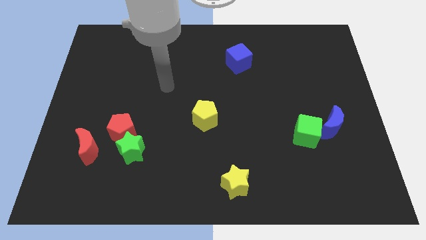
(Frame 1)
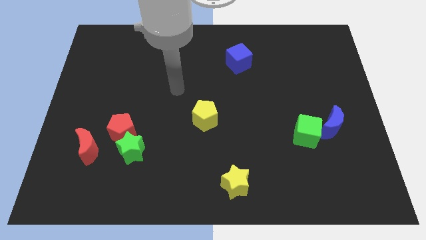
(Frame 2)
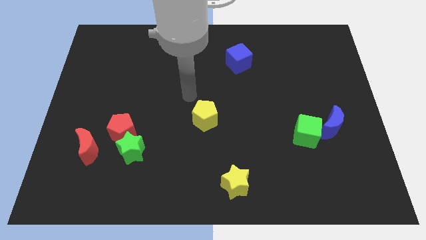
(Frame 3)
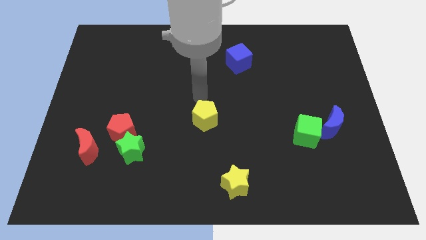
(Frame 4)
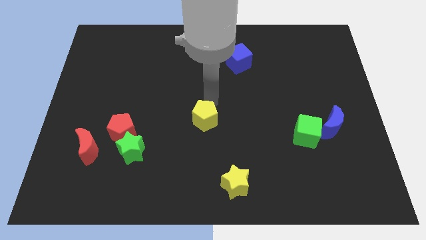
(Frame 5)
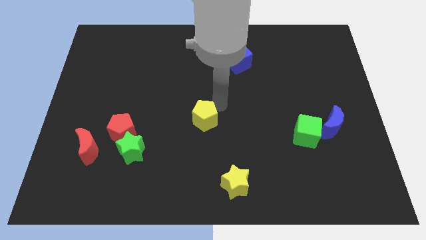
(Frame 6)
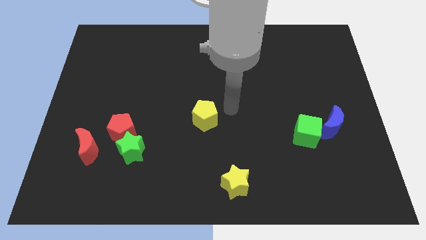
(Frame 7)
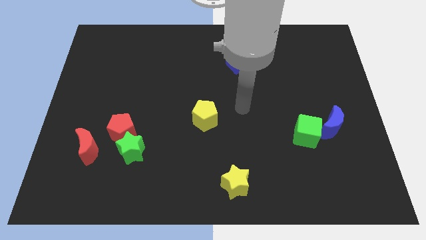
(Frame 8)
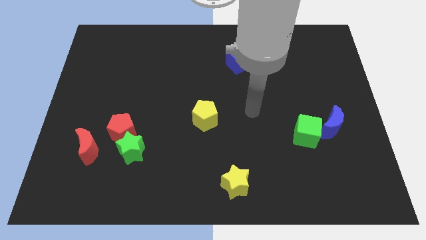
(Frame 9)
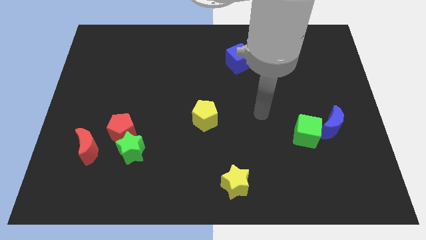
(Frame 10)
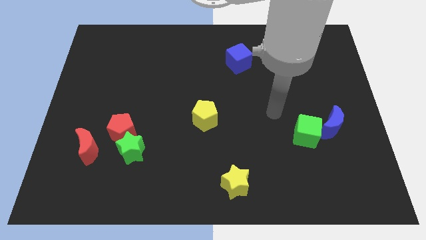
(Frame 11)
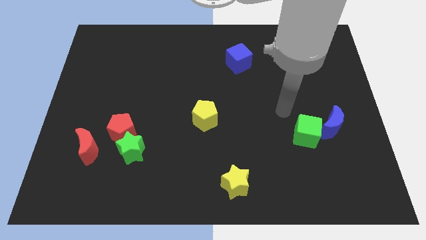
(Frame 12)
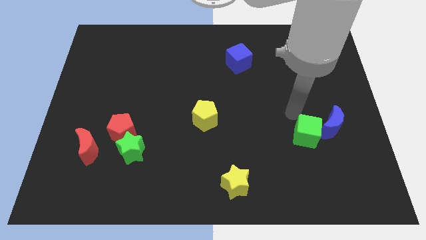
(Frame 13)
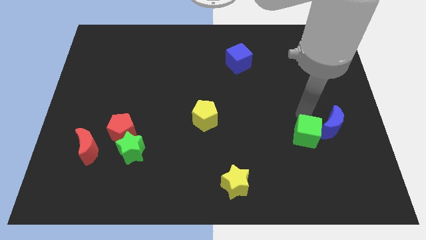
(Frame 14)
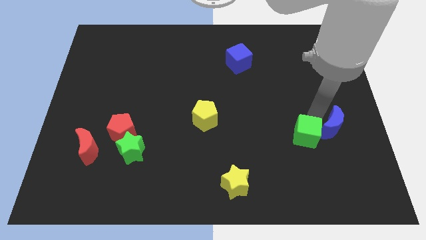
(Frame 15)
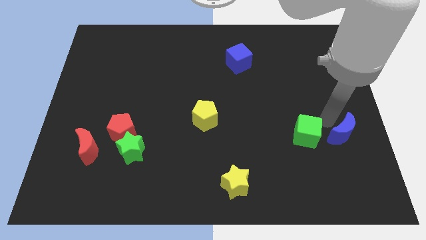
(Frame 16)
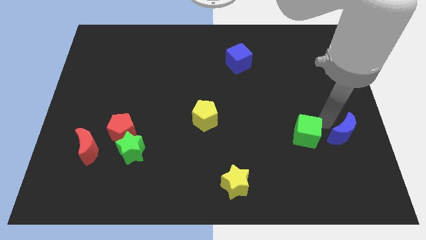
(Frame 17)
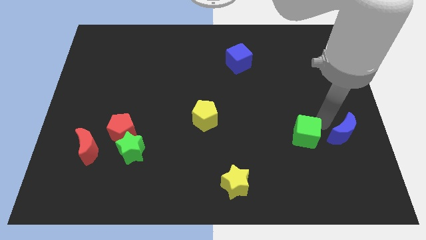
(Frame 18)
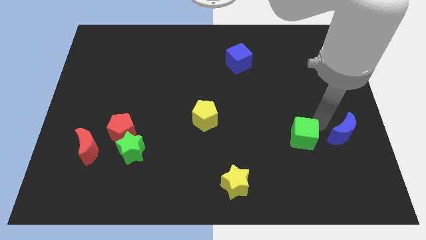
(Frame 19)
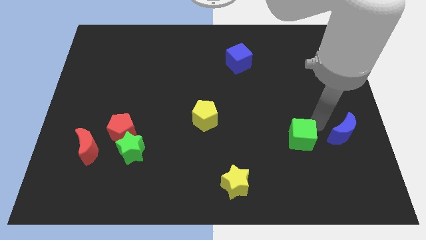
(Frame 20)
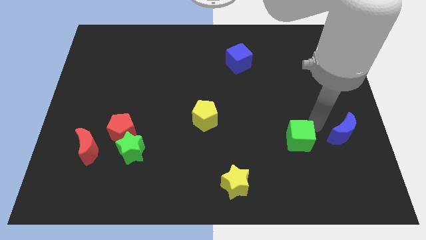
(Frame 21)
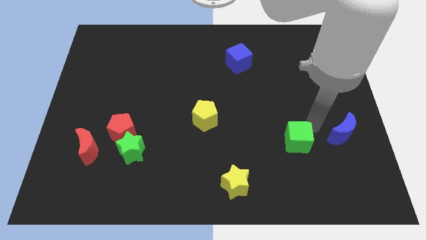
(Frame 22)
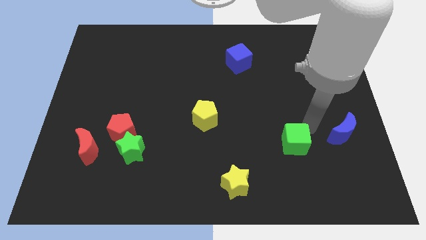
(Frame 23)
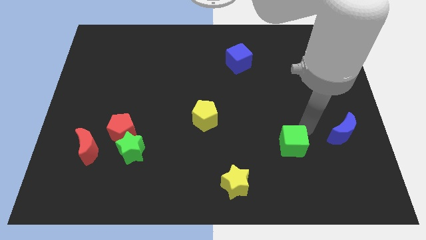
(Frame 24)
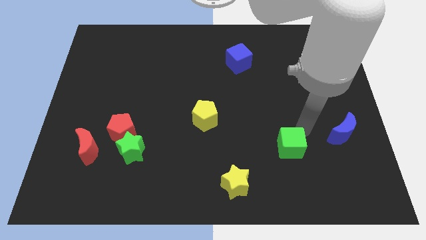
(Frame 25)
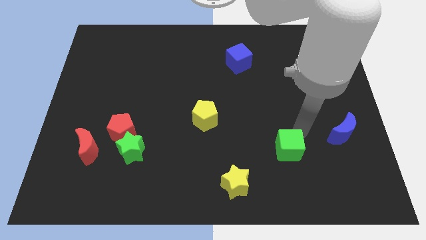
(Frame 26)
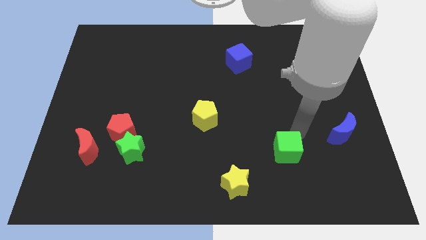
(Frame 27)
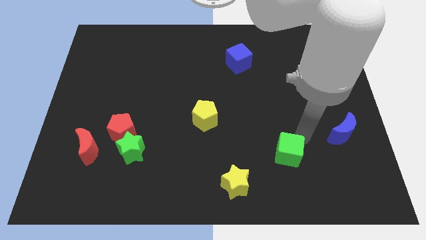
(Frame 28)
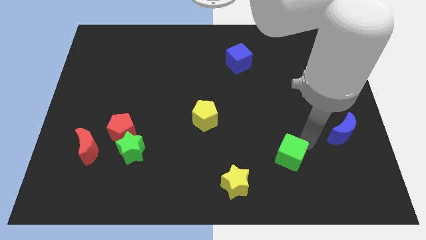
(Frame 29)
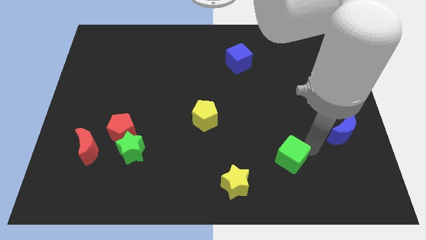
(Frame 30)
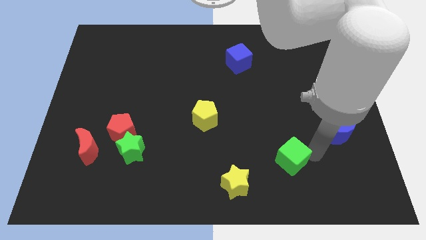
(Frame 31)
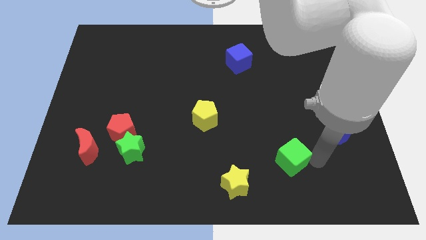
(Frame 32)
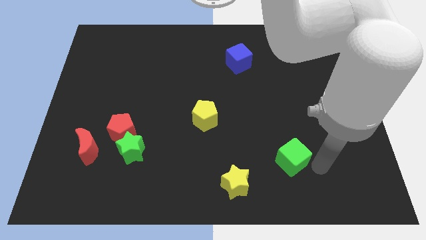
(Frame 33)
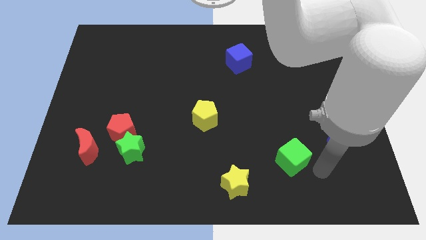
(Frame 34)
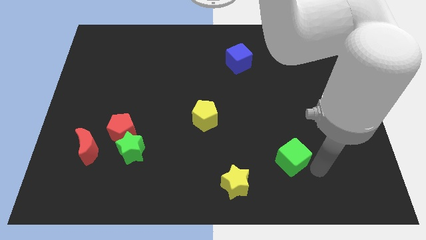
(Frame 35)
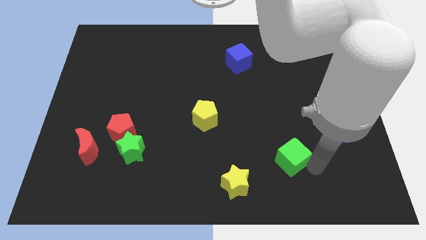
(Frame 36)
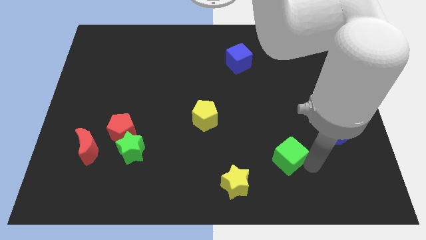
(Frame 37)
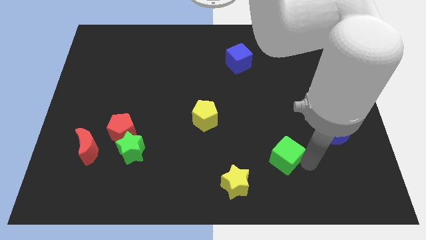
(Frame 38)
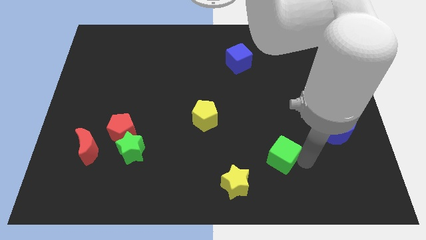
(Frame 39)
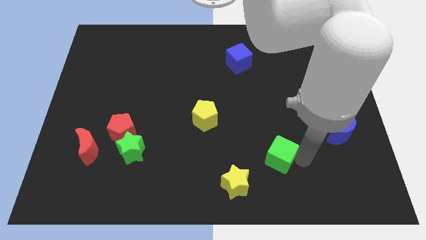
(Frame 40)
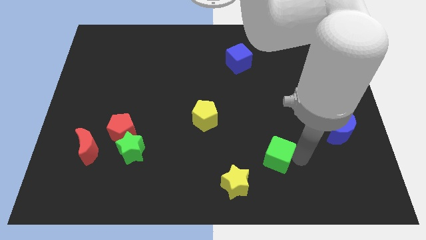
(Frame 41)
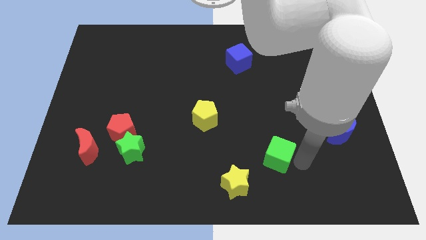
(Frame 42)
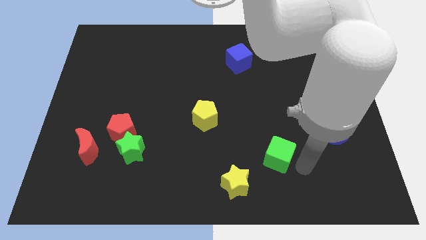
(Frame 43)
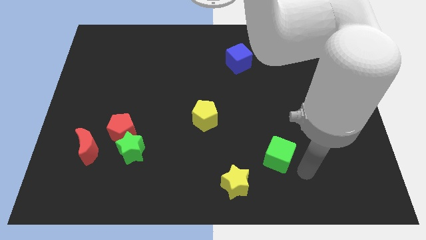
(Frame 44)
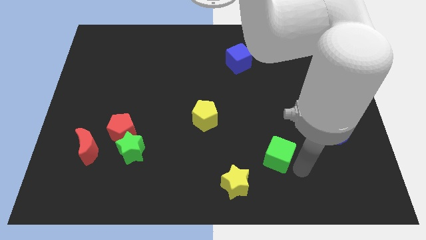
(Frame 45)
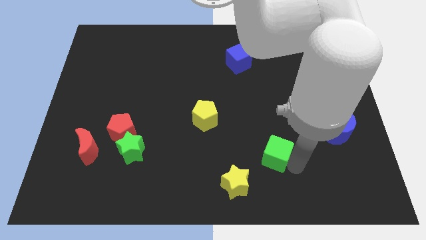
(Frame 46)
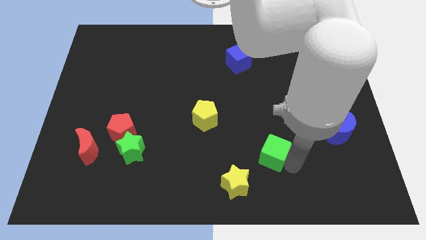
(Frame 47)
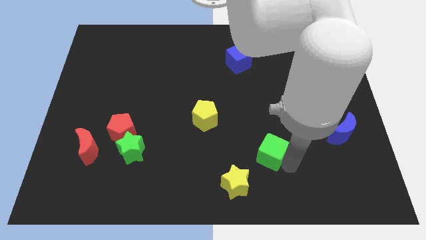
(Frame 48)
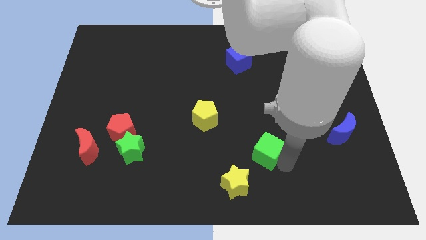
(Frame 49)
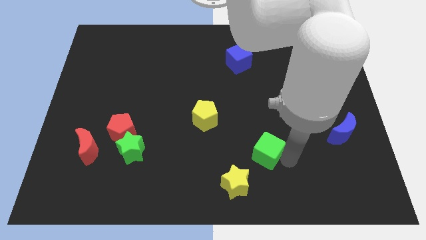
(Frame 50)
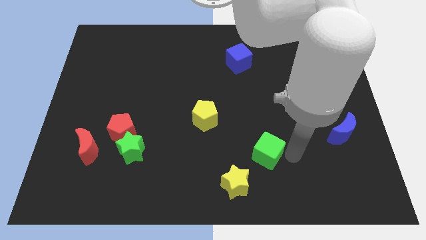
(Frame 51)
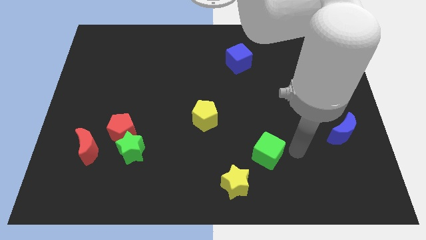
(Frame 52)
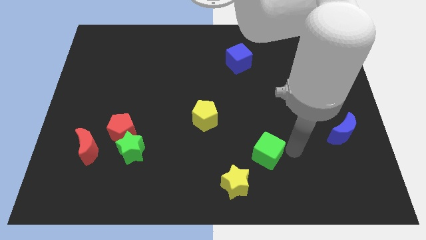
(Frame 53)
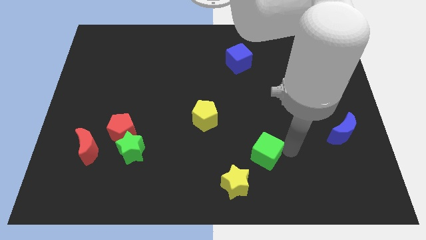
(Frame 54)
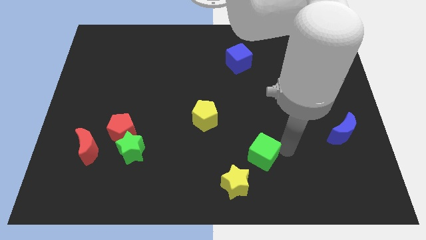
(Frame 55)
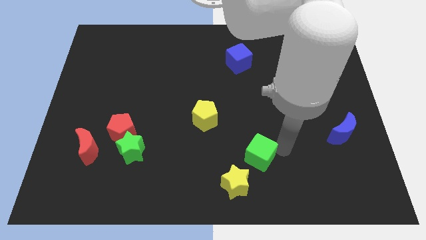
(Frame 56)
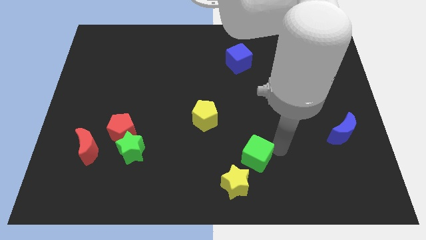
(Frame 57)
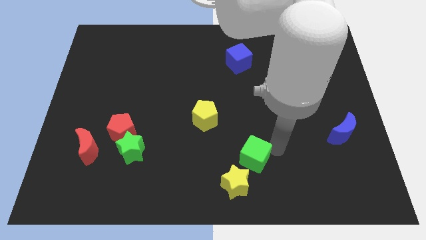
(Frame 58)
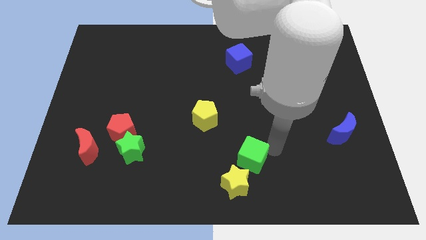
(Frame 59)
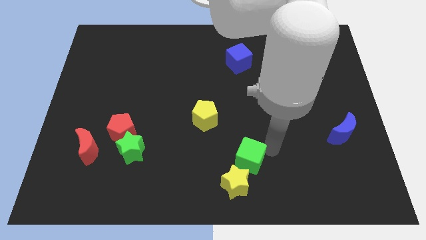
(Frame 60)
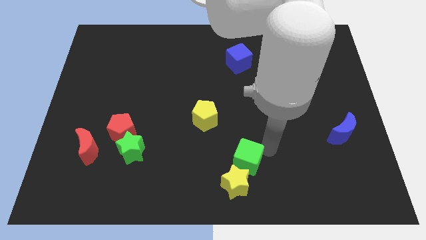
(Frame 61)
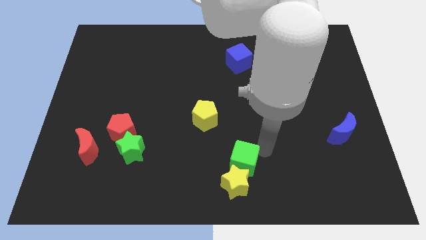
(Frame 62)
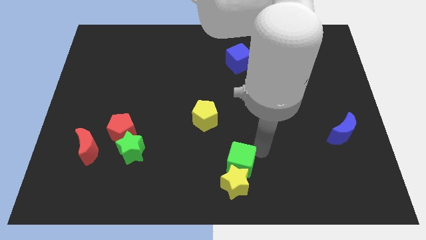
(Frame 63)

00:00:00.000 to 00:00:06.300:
put the green cube to the top left side of the yellow star

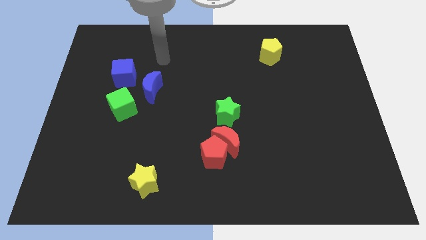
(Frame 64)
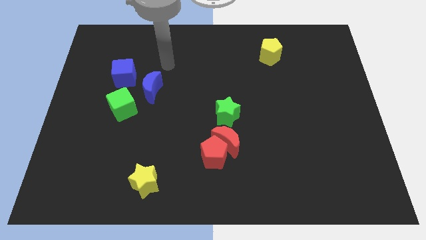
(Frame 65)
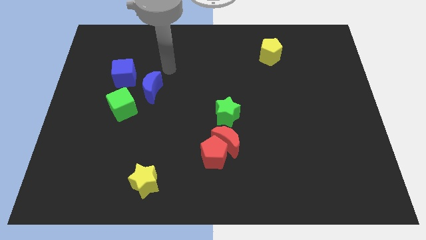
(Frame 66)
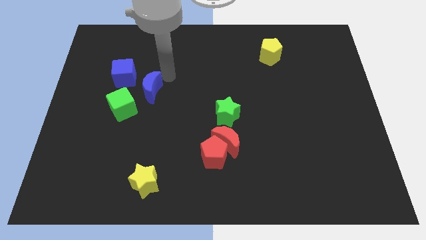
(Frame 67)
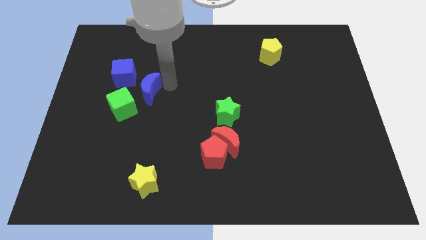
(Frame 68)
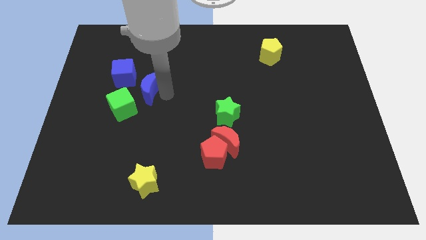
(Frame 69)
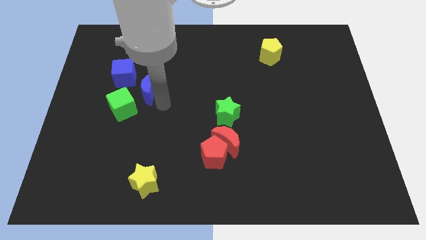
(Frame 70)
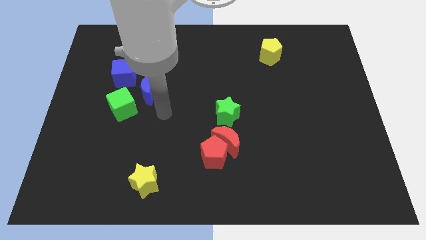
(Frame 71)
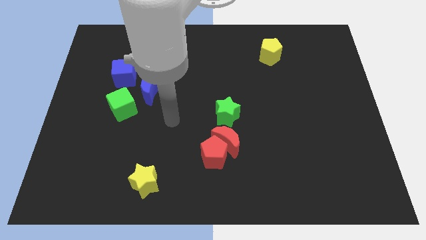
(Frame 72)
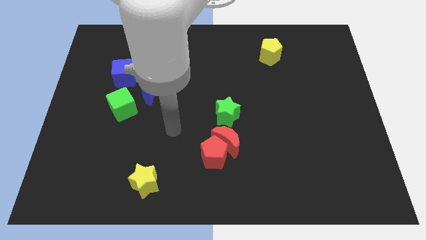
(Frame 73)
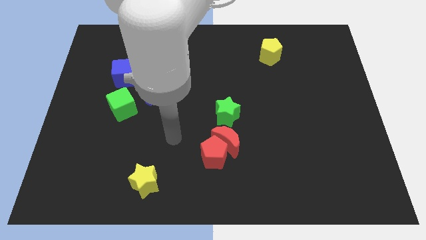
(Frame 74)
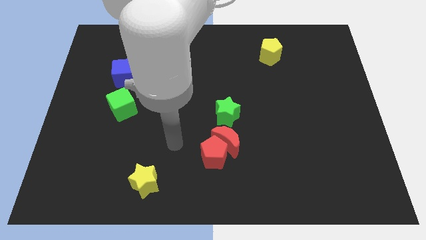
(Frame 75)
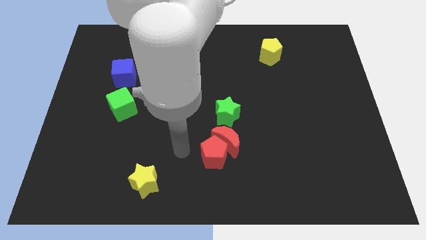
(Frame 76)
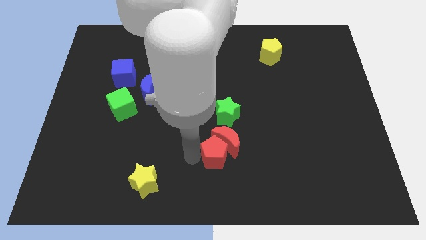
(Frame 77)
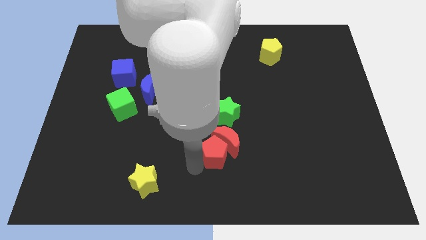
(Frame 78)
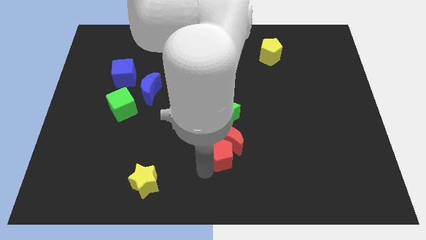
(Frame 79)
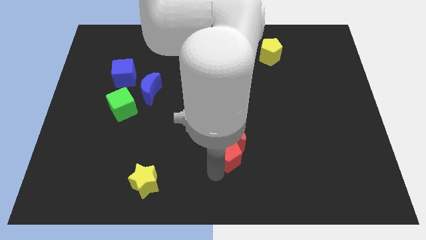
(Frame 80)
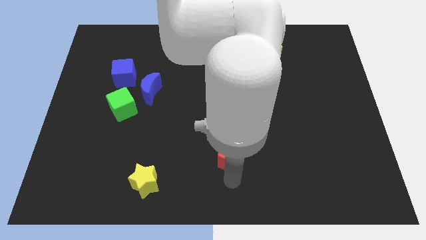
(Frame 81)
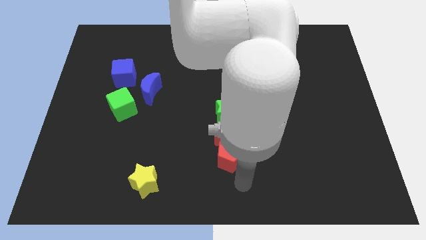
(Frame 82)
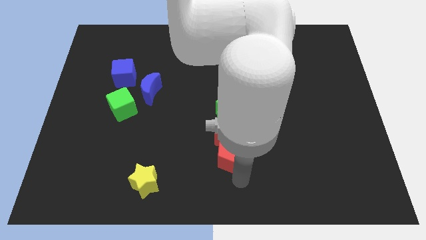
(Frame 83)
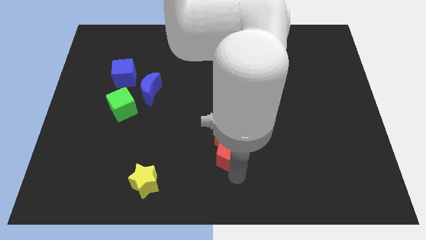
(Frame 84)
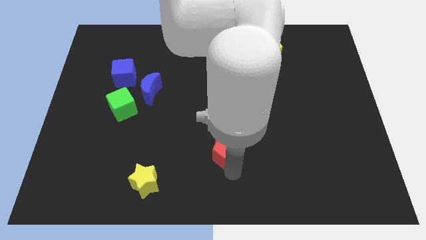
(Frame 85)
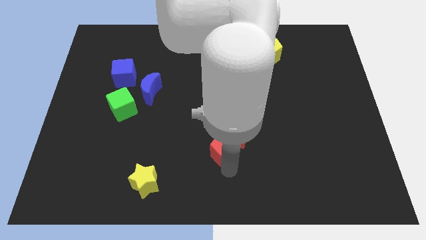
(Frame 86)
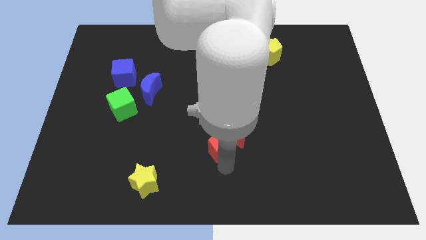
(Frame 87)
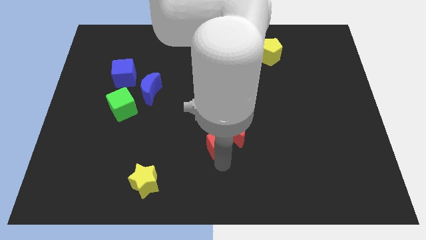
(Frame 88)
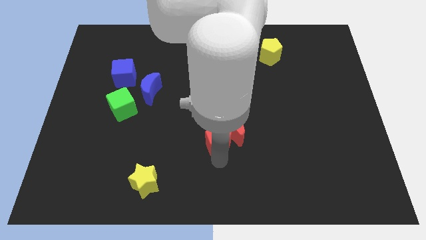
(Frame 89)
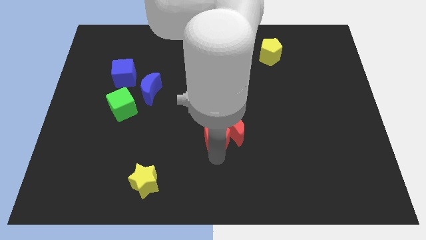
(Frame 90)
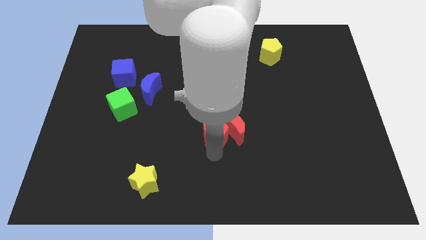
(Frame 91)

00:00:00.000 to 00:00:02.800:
put the red pentagon to the top left side of the red moon
